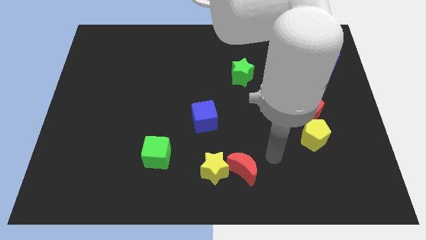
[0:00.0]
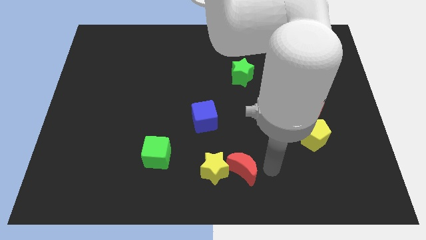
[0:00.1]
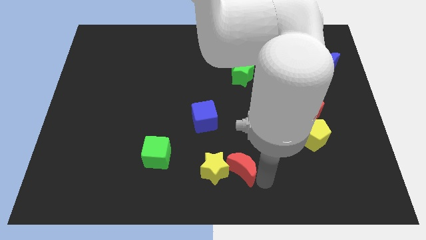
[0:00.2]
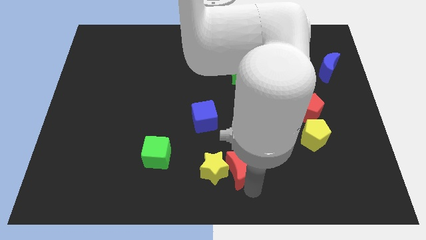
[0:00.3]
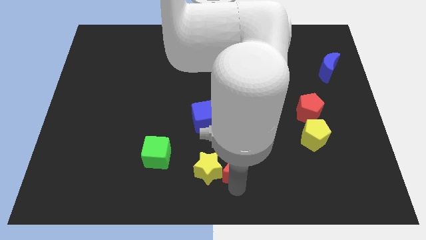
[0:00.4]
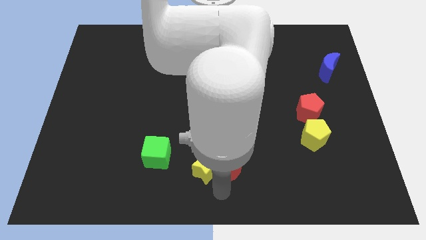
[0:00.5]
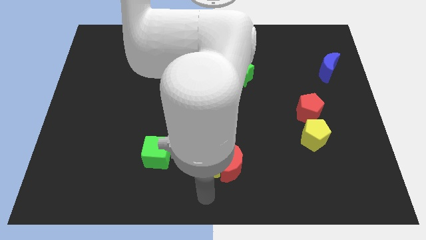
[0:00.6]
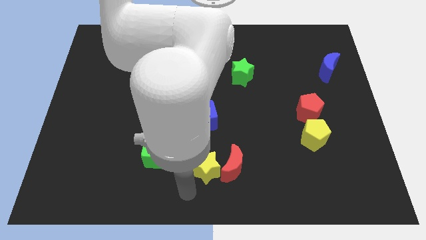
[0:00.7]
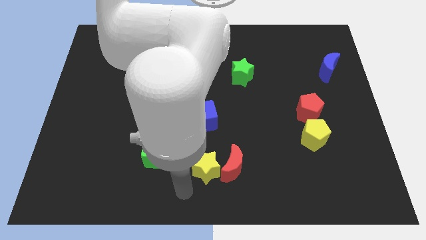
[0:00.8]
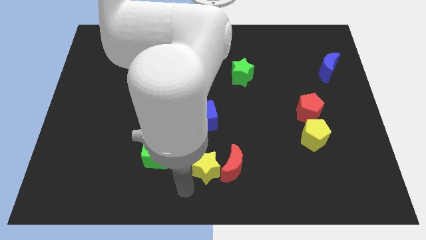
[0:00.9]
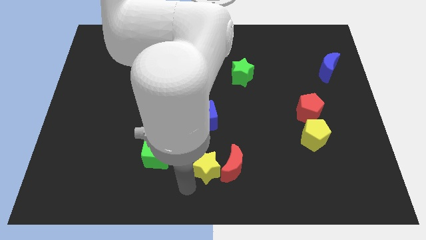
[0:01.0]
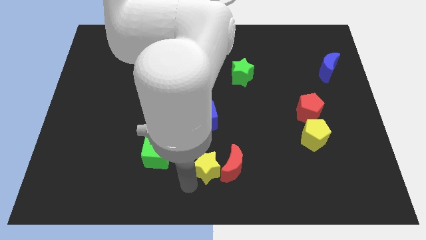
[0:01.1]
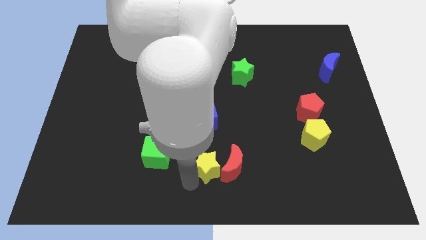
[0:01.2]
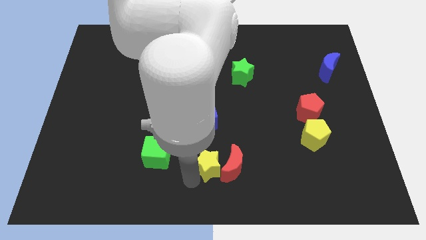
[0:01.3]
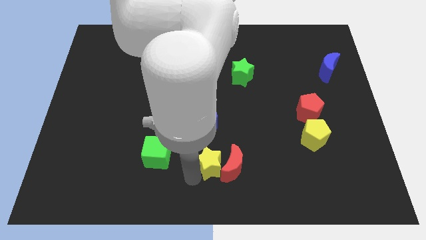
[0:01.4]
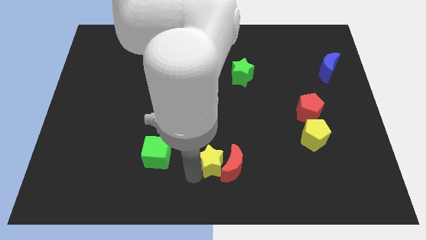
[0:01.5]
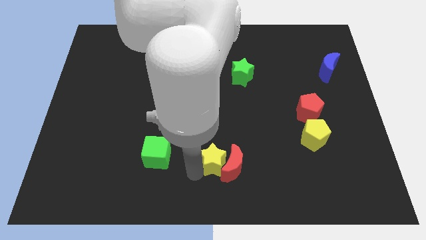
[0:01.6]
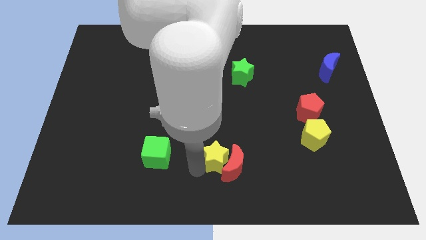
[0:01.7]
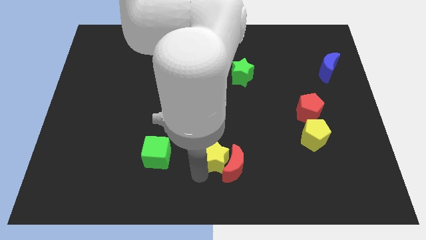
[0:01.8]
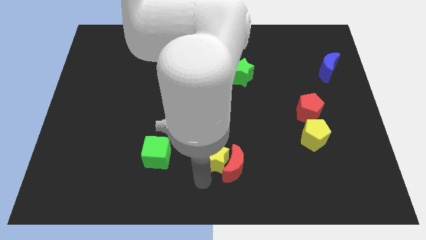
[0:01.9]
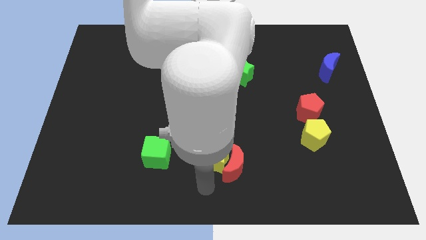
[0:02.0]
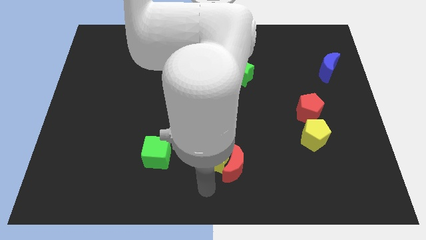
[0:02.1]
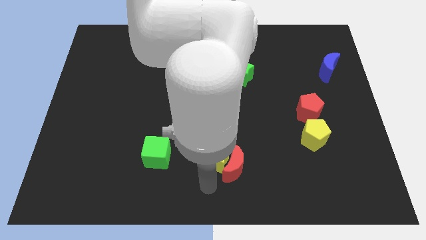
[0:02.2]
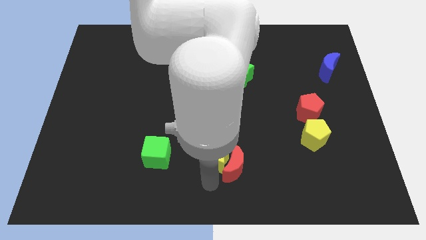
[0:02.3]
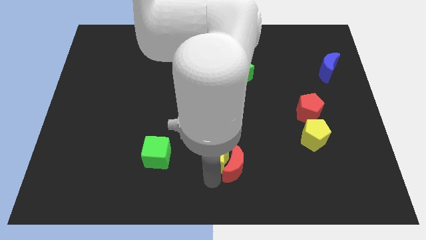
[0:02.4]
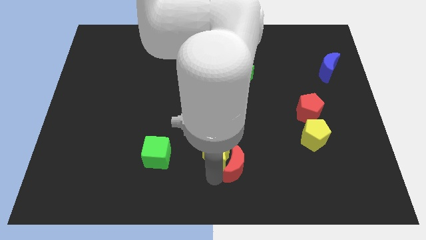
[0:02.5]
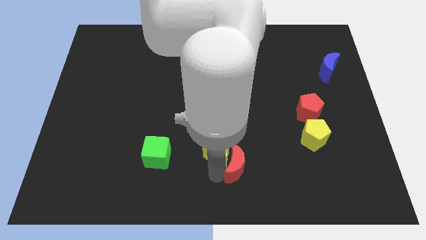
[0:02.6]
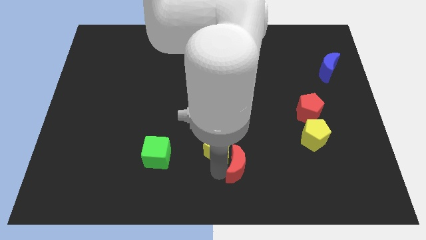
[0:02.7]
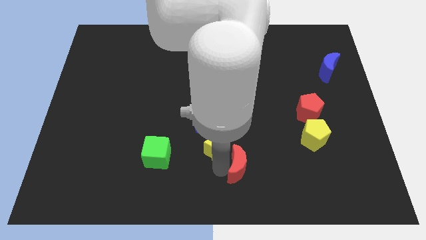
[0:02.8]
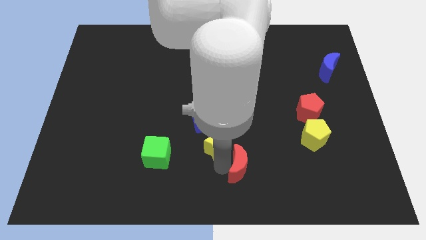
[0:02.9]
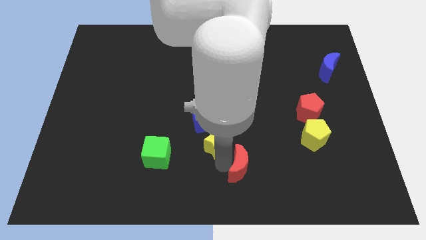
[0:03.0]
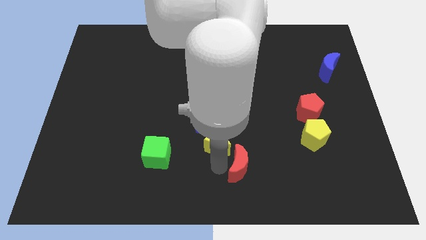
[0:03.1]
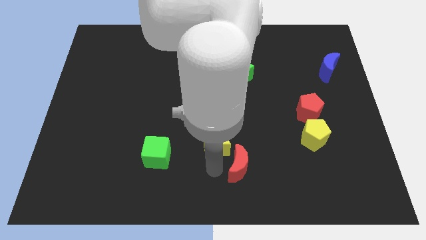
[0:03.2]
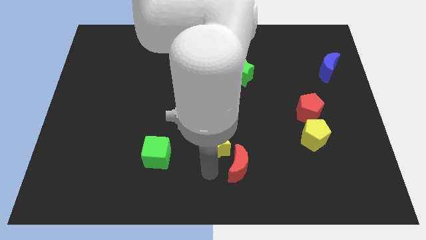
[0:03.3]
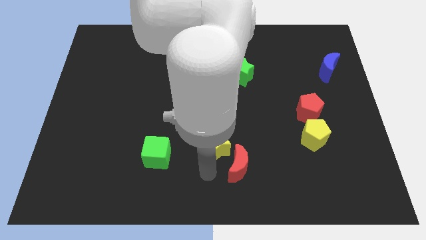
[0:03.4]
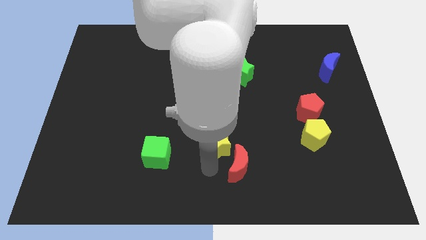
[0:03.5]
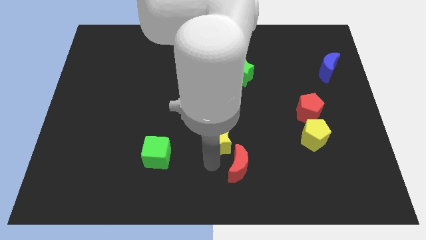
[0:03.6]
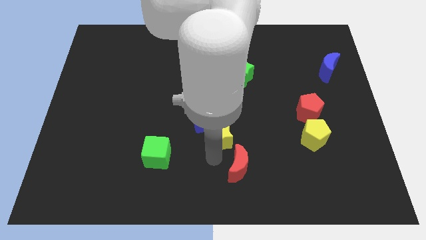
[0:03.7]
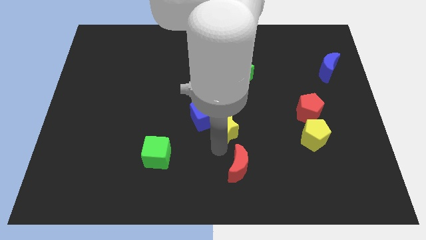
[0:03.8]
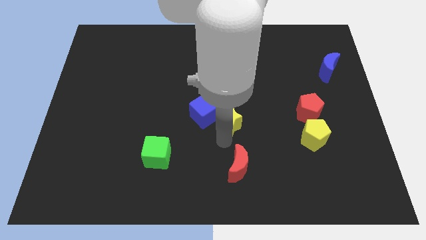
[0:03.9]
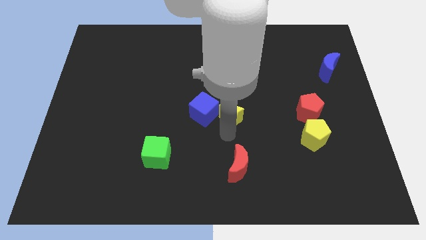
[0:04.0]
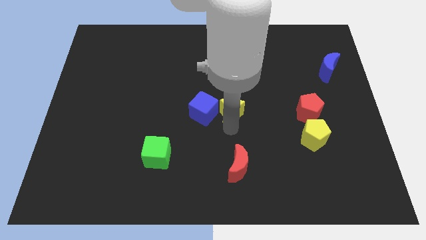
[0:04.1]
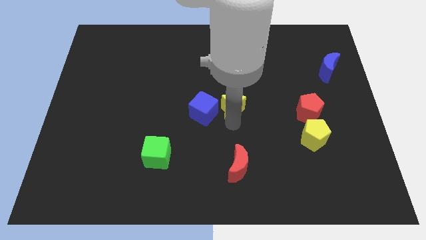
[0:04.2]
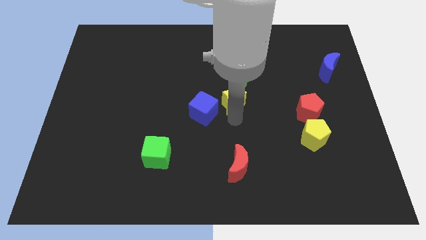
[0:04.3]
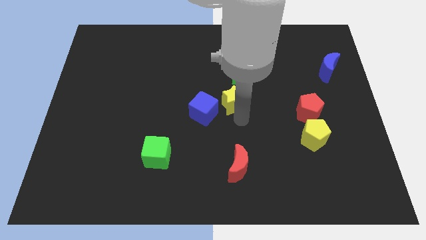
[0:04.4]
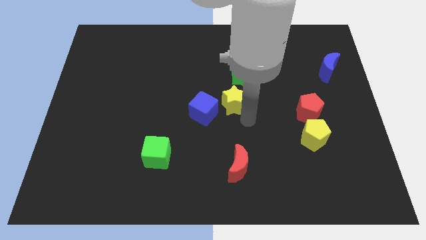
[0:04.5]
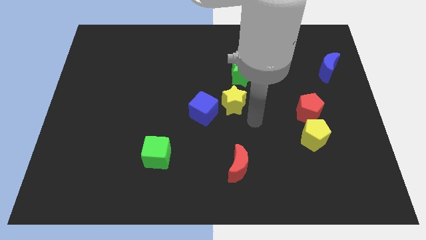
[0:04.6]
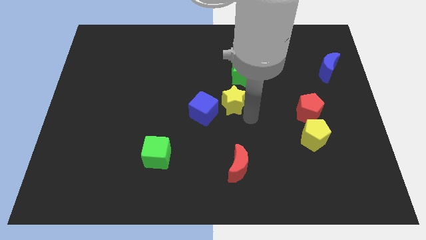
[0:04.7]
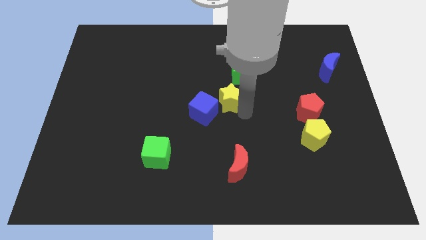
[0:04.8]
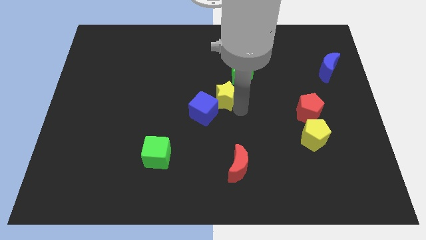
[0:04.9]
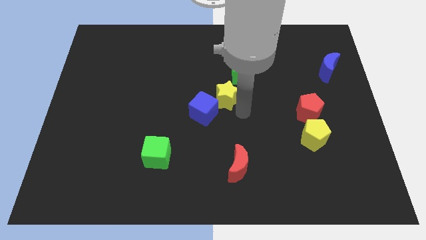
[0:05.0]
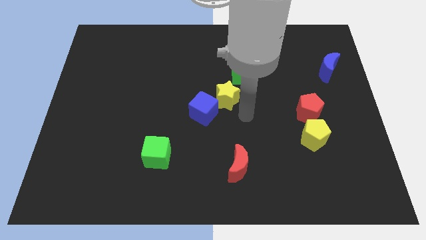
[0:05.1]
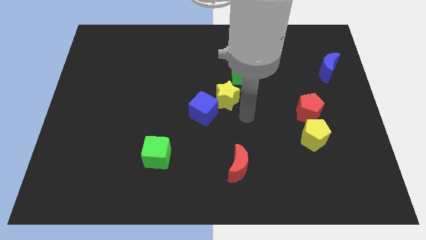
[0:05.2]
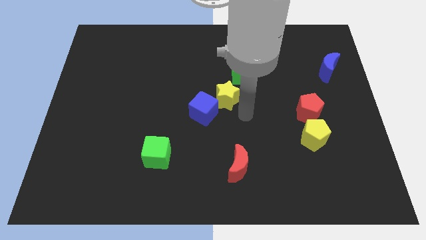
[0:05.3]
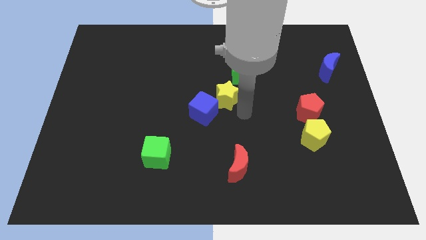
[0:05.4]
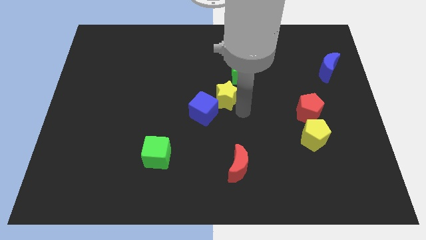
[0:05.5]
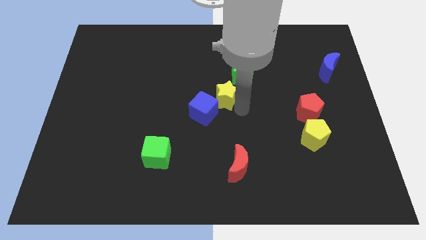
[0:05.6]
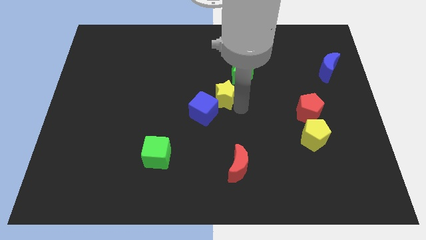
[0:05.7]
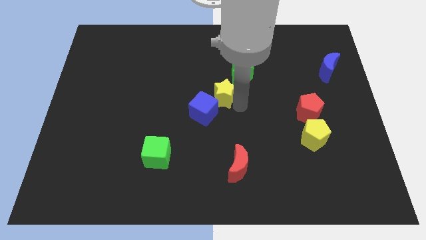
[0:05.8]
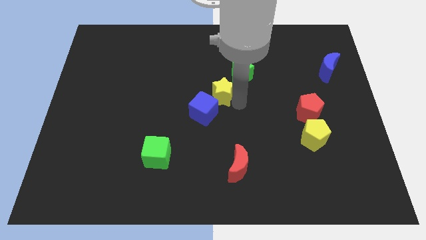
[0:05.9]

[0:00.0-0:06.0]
push the yellow star upwards

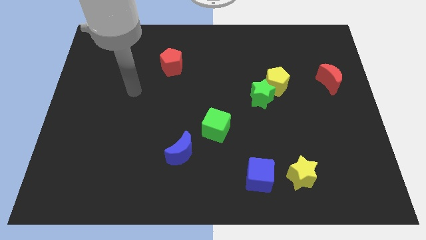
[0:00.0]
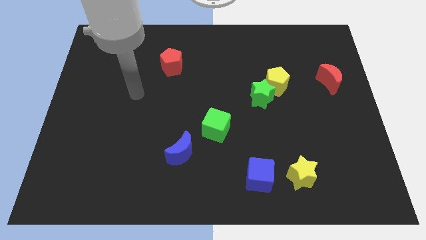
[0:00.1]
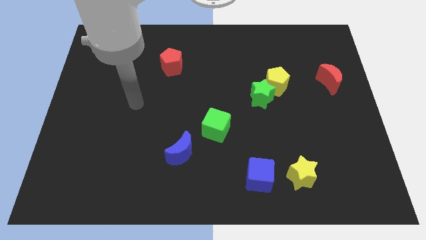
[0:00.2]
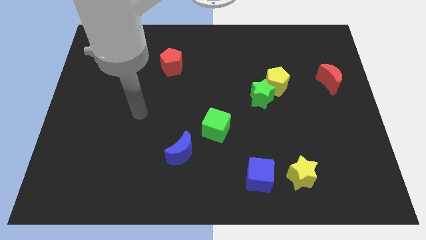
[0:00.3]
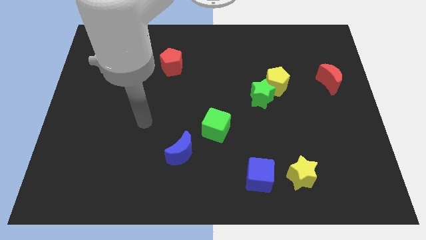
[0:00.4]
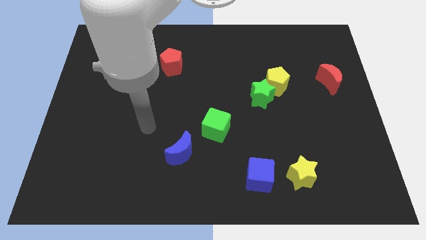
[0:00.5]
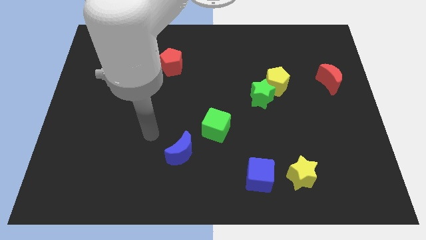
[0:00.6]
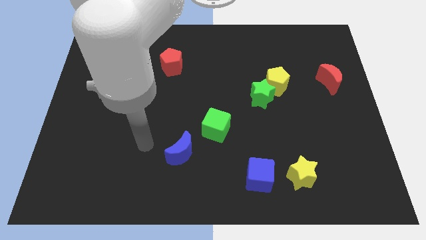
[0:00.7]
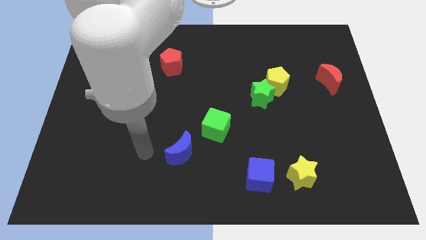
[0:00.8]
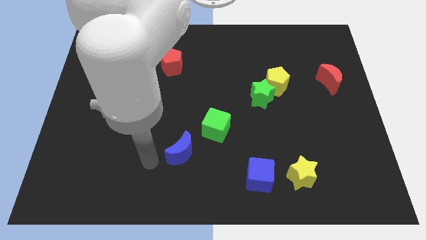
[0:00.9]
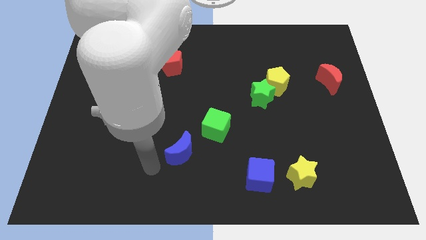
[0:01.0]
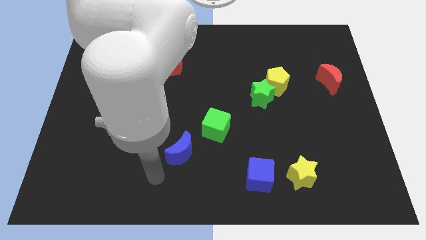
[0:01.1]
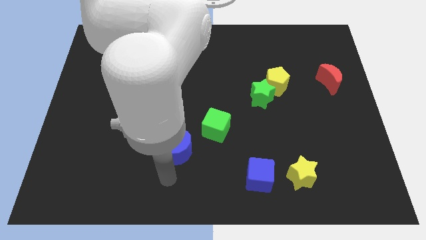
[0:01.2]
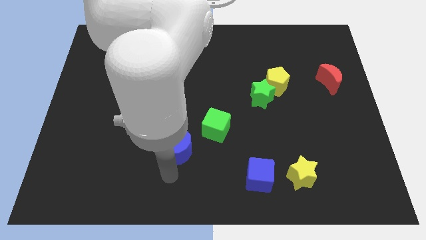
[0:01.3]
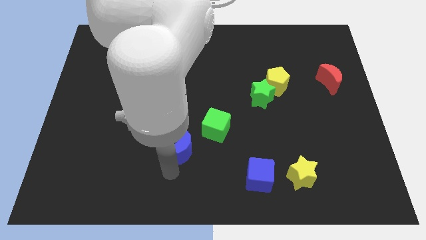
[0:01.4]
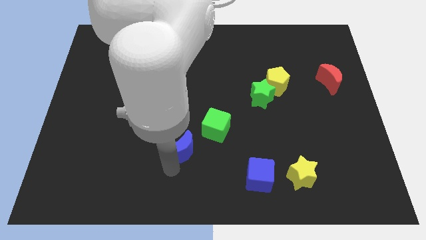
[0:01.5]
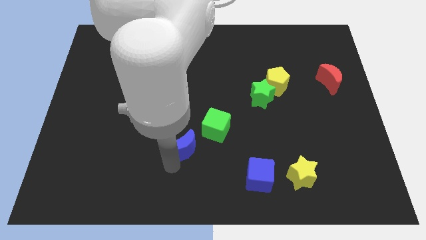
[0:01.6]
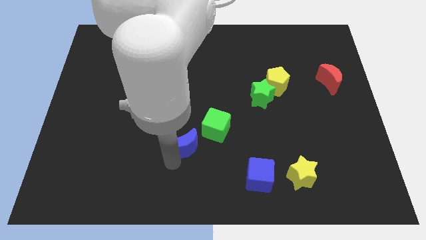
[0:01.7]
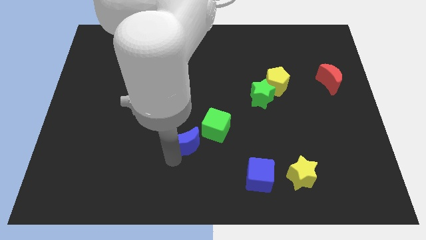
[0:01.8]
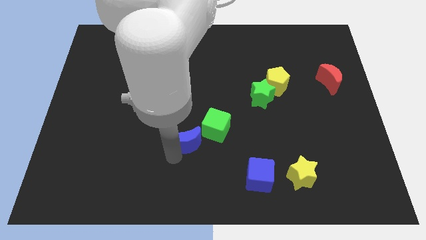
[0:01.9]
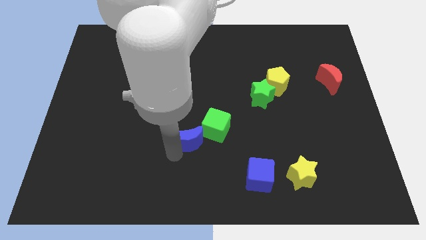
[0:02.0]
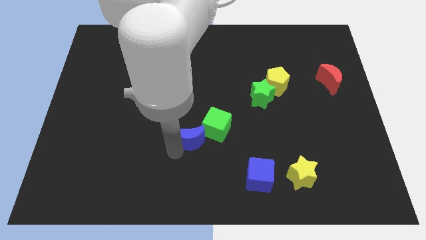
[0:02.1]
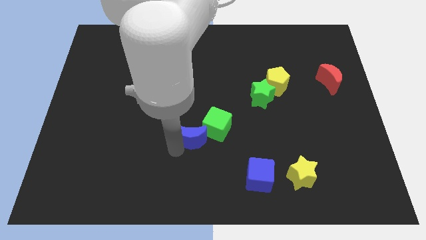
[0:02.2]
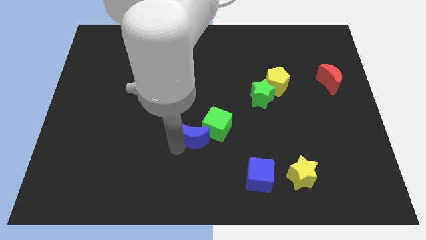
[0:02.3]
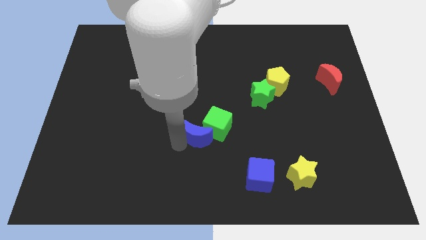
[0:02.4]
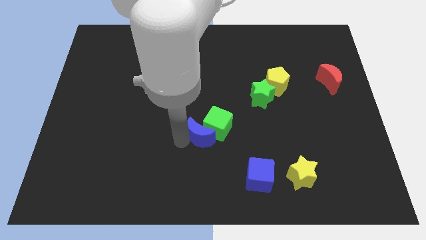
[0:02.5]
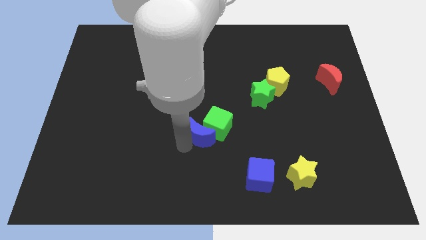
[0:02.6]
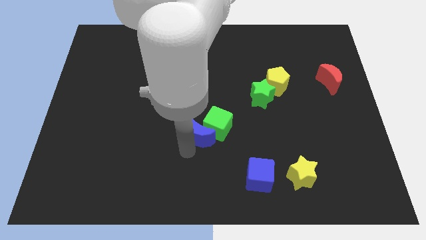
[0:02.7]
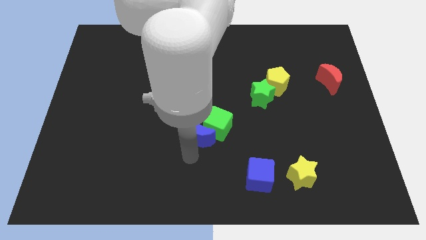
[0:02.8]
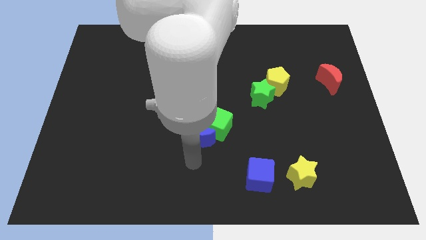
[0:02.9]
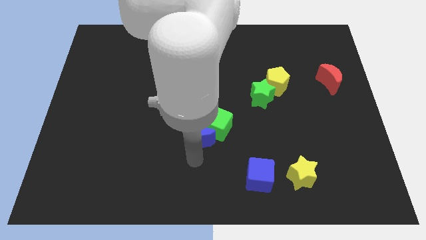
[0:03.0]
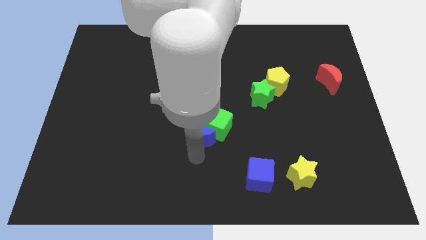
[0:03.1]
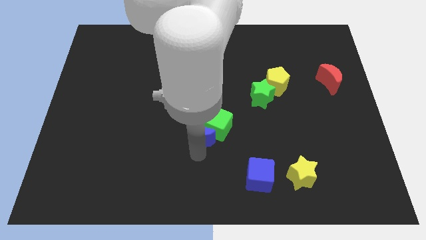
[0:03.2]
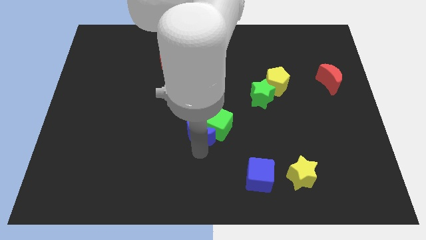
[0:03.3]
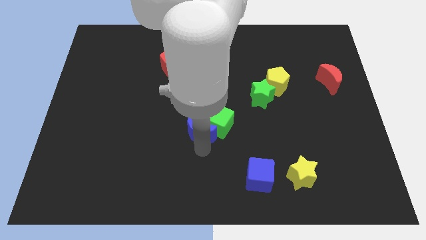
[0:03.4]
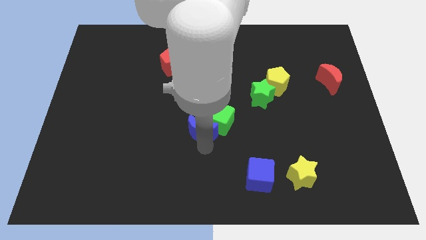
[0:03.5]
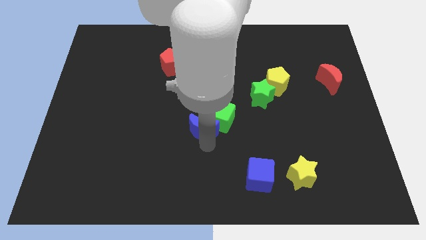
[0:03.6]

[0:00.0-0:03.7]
push the blue moon a little bit up and right diagonally
